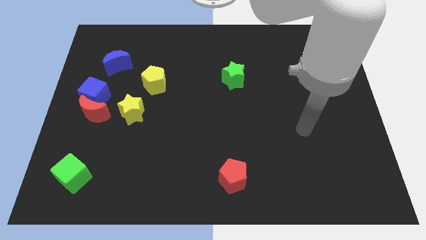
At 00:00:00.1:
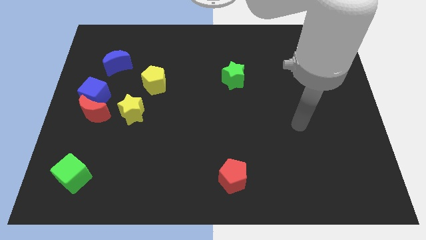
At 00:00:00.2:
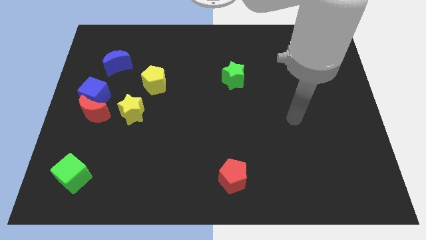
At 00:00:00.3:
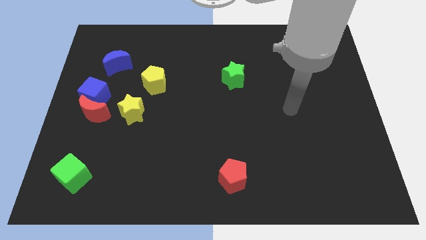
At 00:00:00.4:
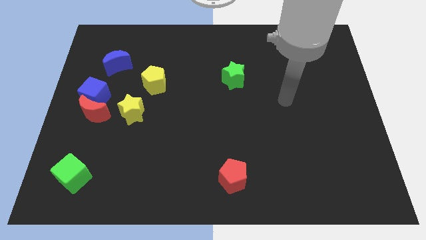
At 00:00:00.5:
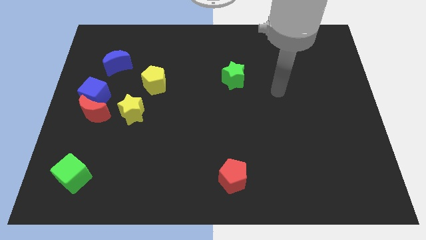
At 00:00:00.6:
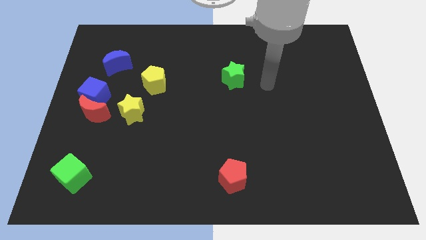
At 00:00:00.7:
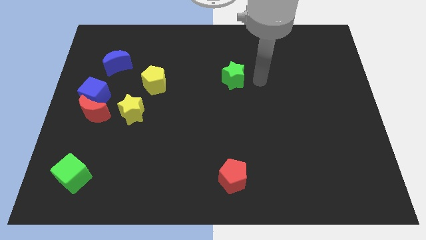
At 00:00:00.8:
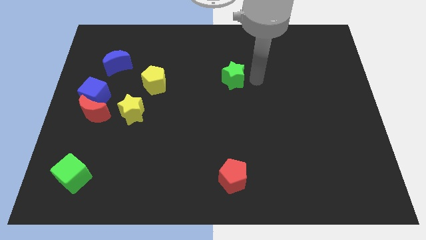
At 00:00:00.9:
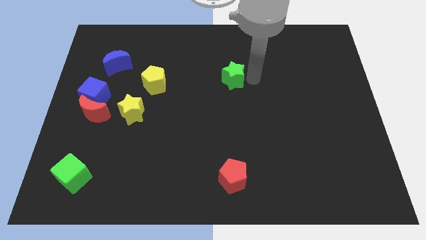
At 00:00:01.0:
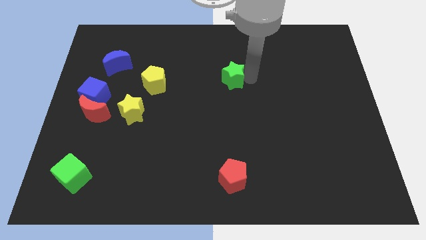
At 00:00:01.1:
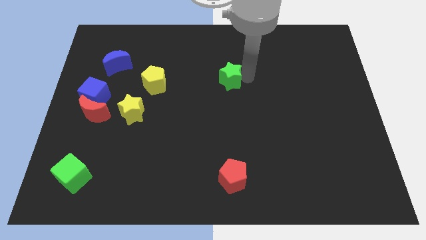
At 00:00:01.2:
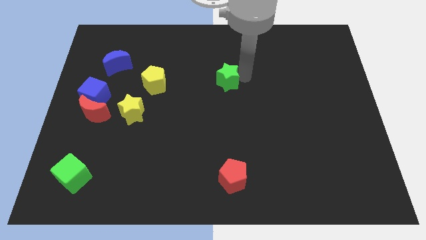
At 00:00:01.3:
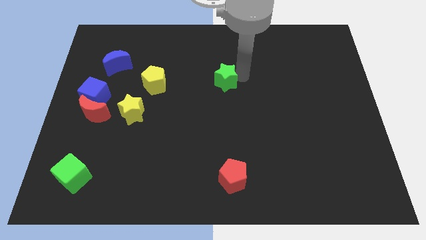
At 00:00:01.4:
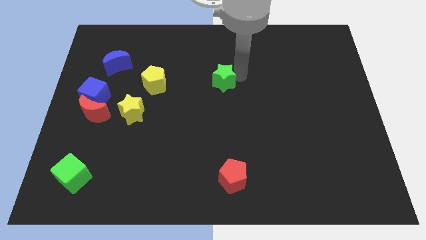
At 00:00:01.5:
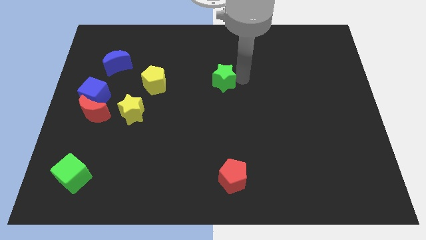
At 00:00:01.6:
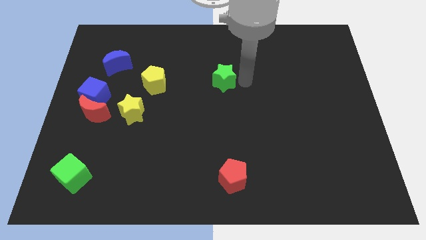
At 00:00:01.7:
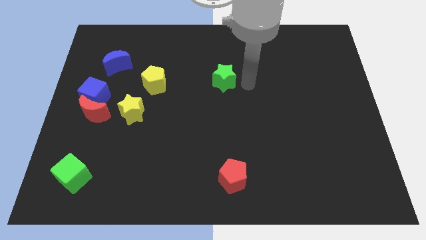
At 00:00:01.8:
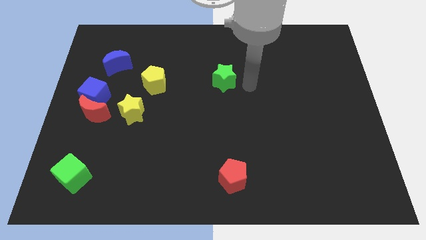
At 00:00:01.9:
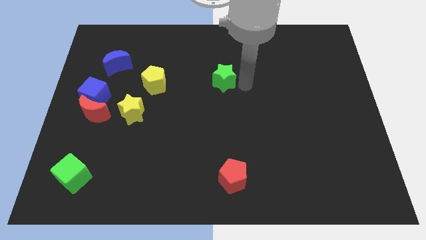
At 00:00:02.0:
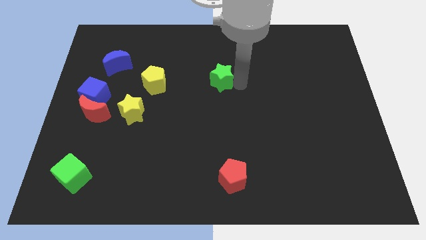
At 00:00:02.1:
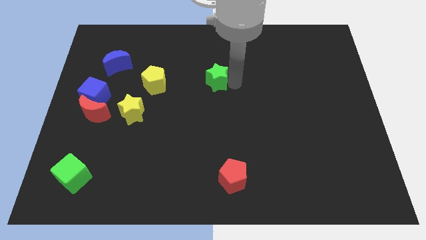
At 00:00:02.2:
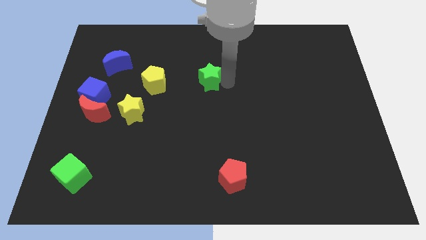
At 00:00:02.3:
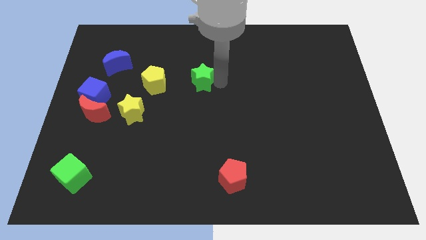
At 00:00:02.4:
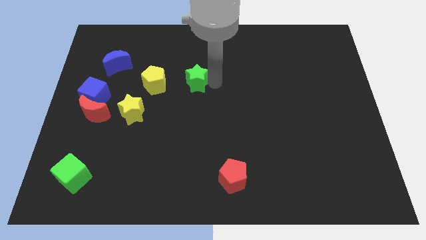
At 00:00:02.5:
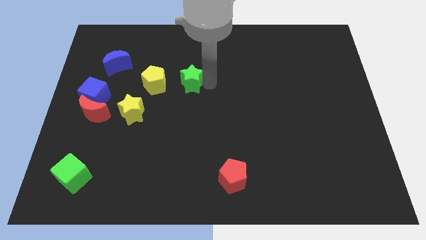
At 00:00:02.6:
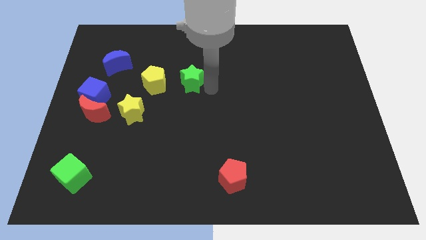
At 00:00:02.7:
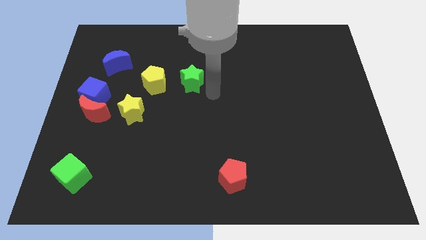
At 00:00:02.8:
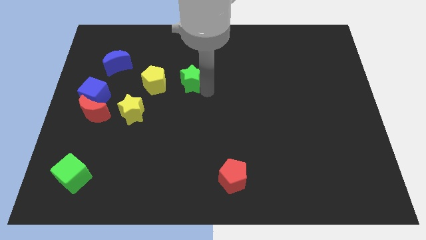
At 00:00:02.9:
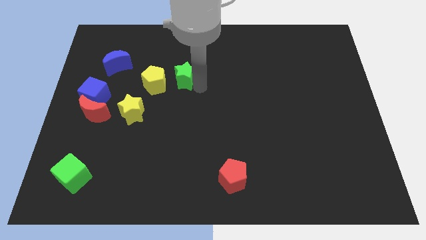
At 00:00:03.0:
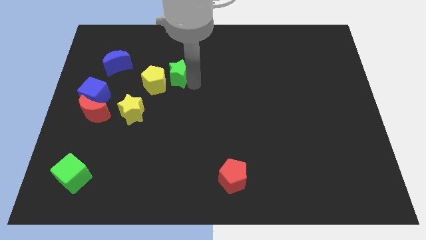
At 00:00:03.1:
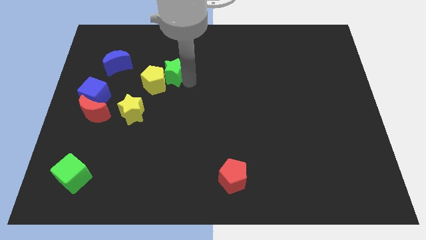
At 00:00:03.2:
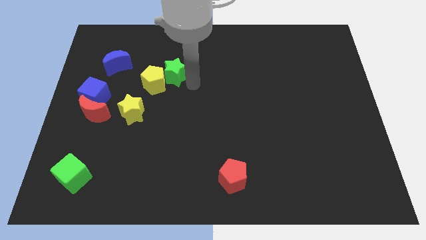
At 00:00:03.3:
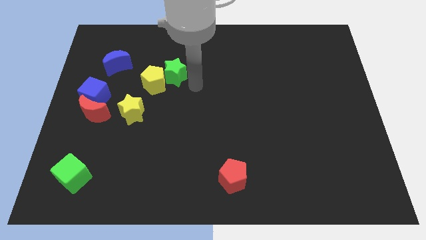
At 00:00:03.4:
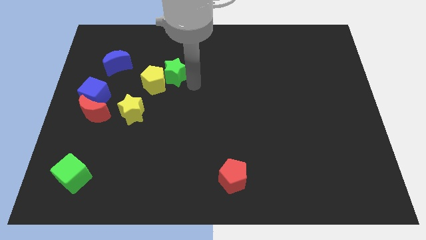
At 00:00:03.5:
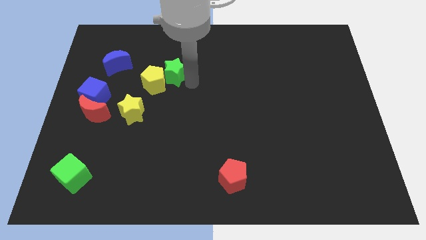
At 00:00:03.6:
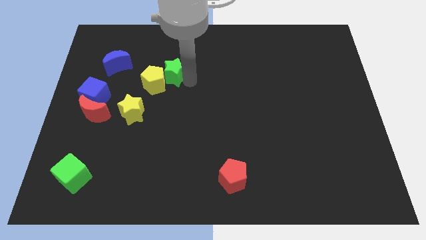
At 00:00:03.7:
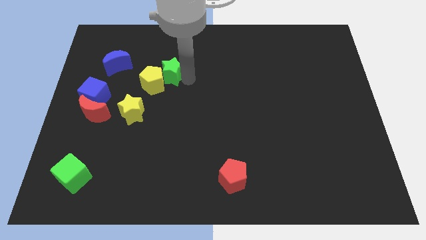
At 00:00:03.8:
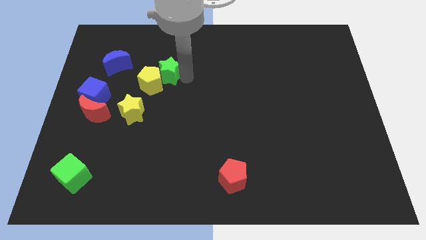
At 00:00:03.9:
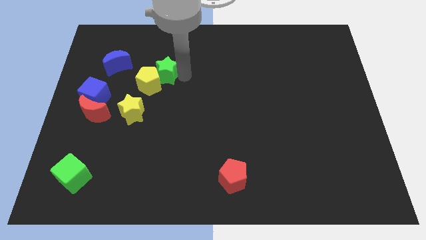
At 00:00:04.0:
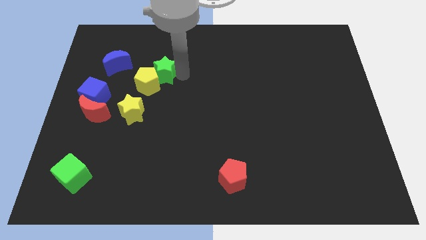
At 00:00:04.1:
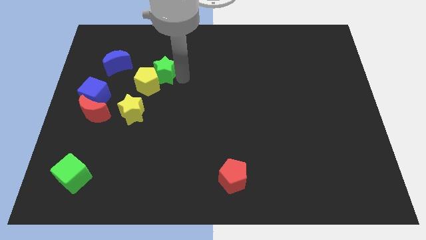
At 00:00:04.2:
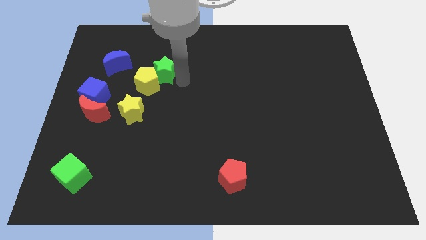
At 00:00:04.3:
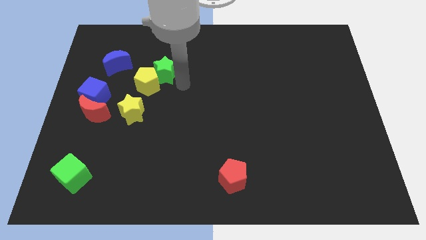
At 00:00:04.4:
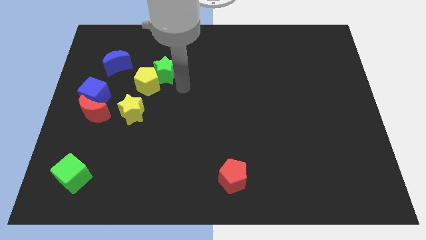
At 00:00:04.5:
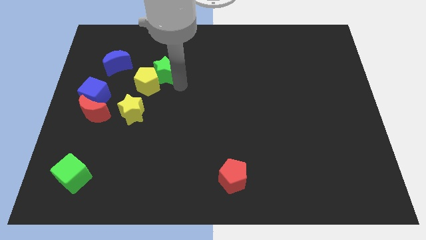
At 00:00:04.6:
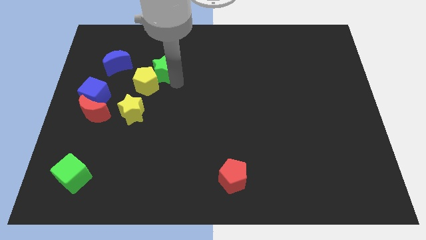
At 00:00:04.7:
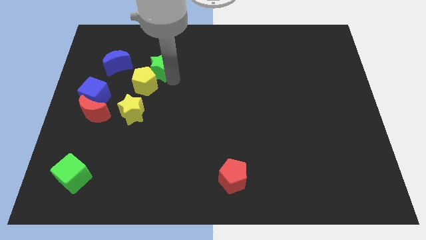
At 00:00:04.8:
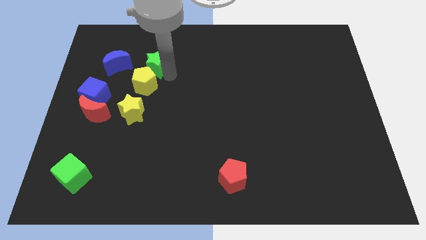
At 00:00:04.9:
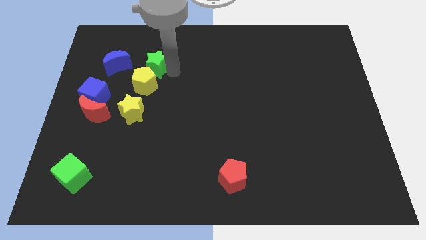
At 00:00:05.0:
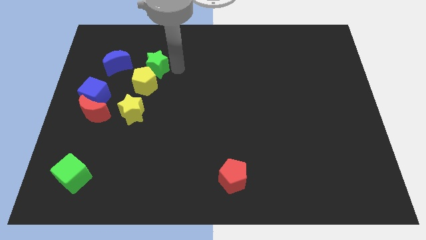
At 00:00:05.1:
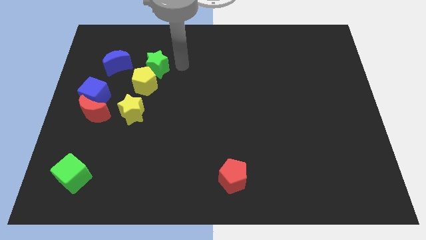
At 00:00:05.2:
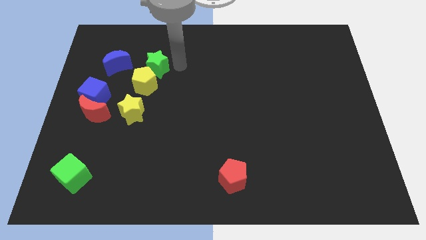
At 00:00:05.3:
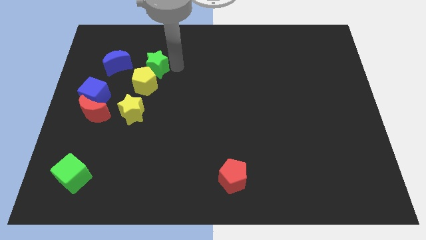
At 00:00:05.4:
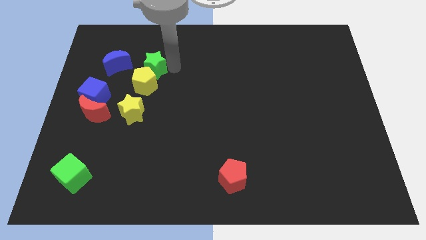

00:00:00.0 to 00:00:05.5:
slide the green star left

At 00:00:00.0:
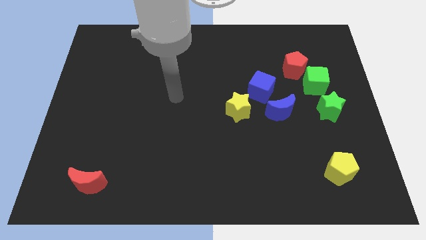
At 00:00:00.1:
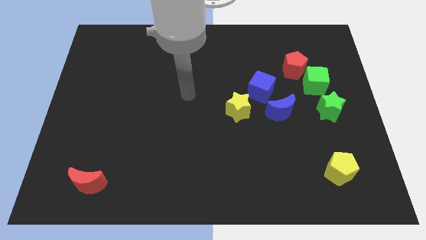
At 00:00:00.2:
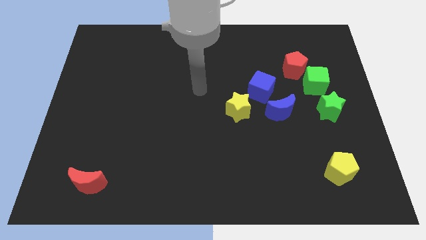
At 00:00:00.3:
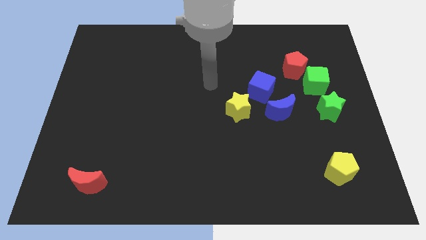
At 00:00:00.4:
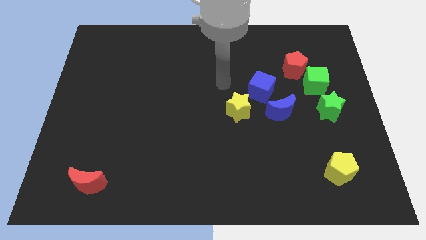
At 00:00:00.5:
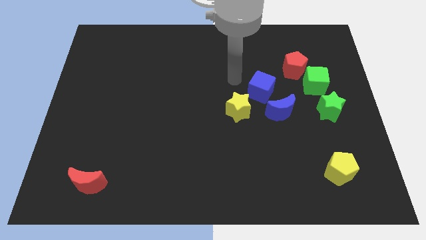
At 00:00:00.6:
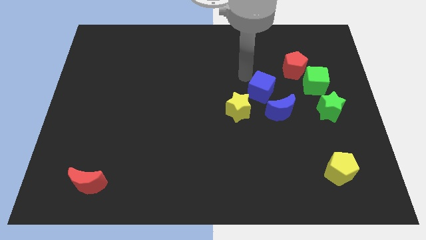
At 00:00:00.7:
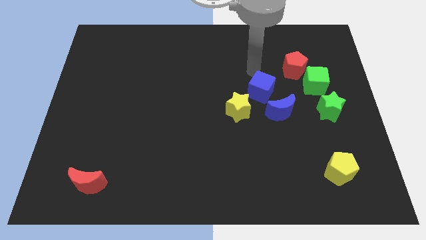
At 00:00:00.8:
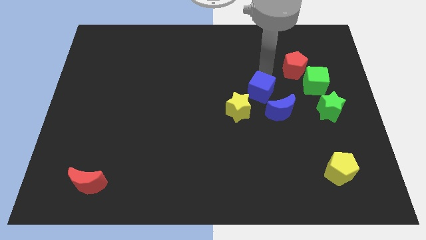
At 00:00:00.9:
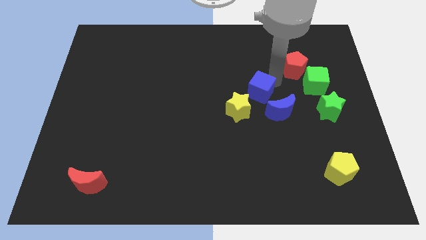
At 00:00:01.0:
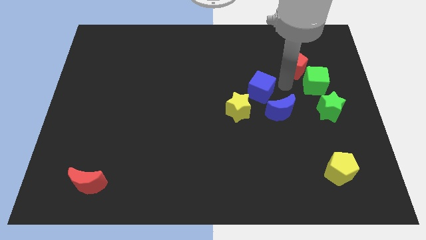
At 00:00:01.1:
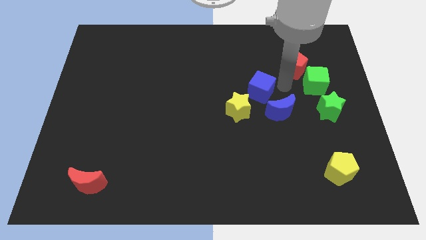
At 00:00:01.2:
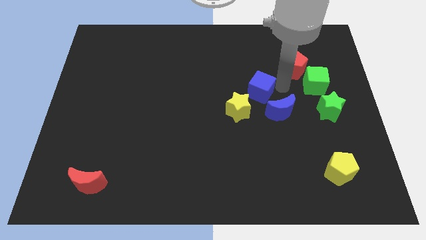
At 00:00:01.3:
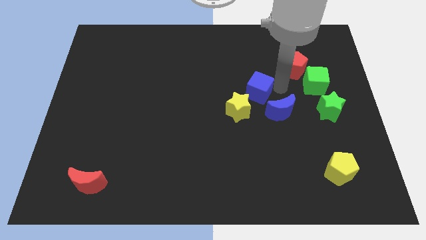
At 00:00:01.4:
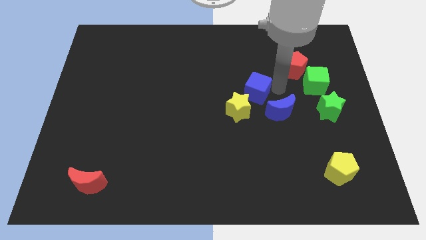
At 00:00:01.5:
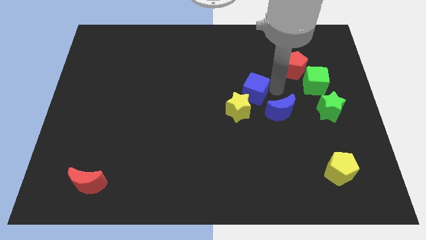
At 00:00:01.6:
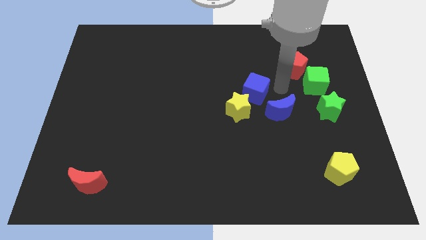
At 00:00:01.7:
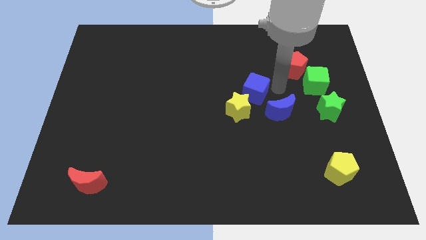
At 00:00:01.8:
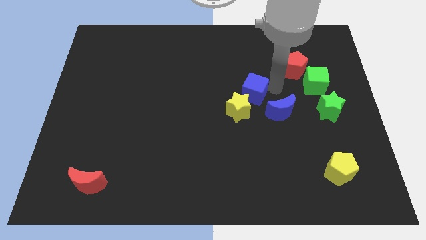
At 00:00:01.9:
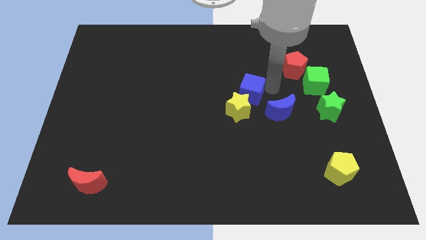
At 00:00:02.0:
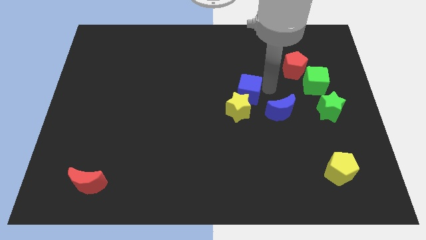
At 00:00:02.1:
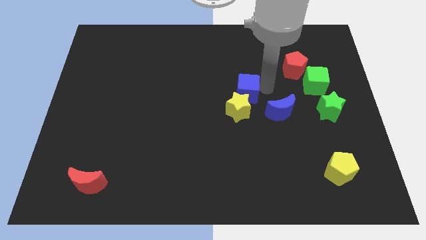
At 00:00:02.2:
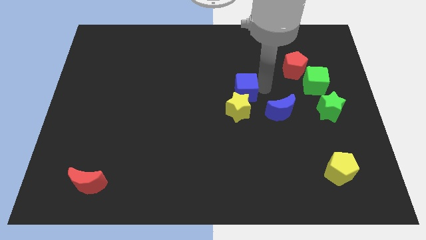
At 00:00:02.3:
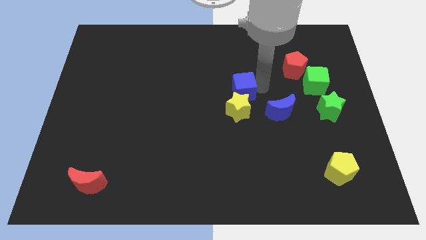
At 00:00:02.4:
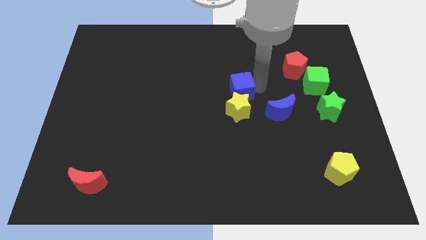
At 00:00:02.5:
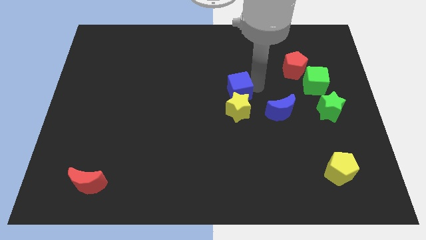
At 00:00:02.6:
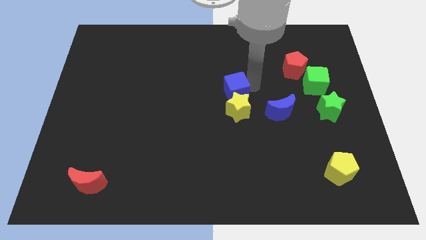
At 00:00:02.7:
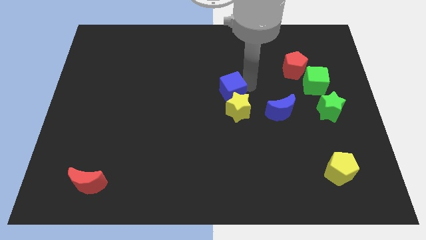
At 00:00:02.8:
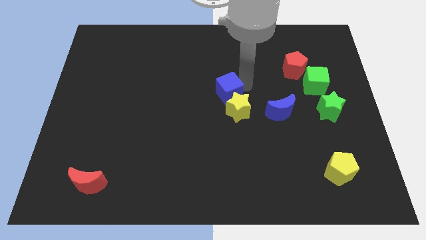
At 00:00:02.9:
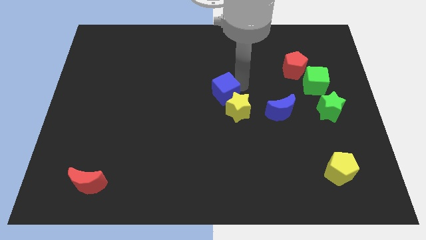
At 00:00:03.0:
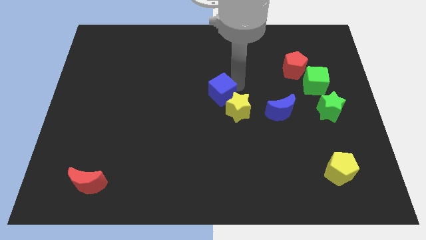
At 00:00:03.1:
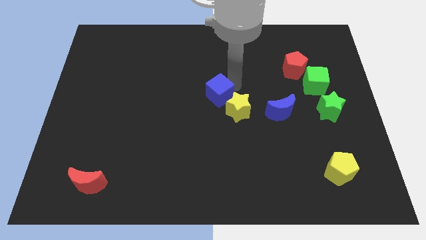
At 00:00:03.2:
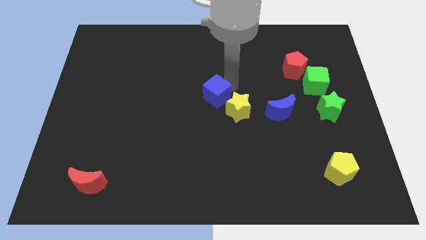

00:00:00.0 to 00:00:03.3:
slightly push the blue cube downwards and to the left diagonally
